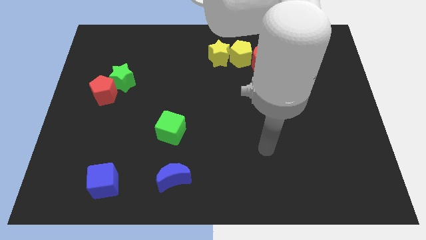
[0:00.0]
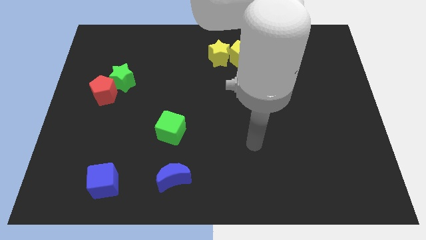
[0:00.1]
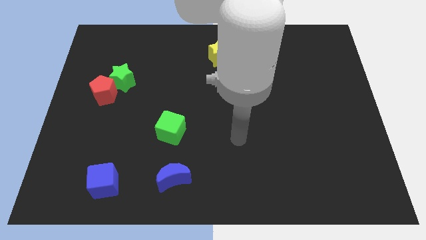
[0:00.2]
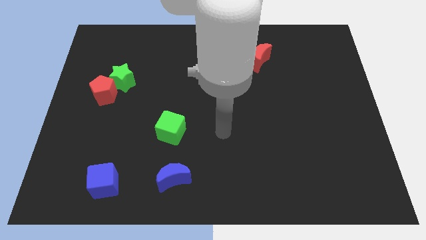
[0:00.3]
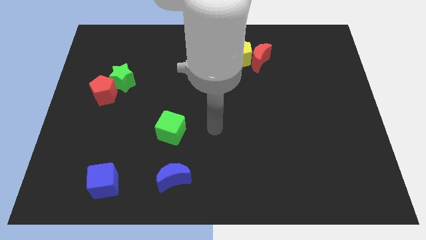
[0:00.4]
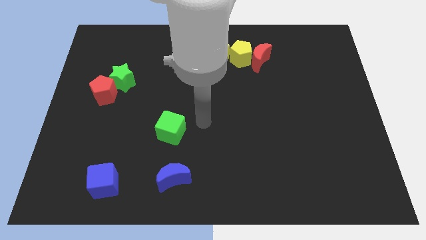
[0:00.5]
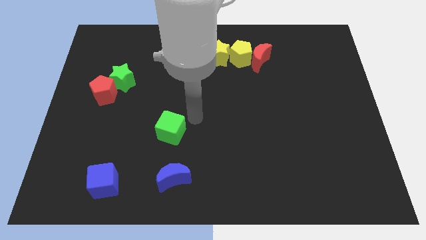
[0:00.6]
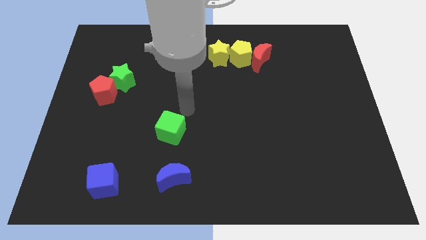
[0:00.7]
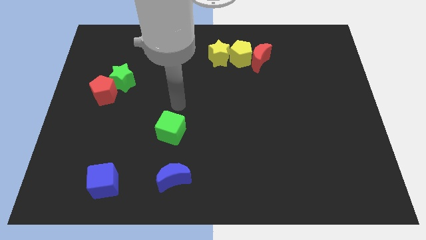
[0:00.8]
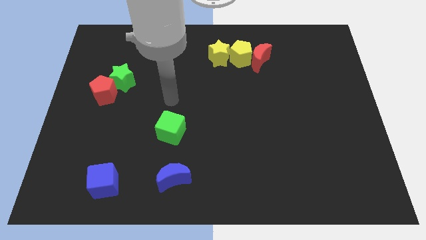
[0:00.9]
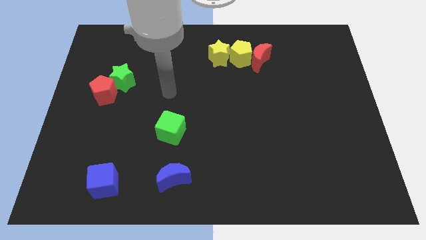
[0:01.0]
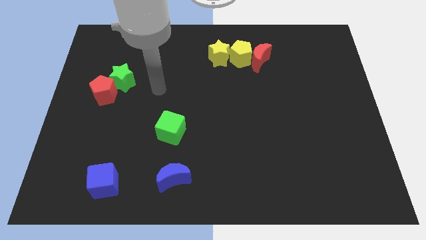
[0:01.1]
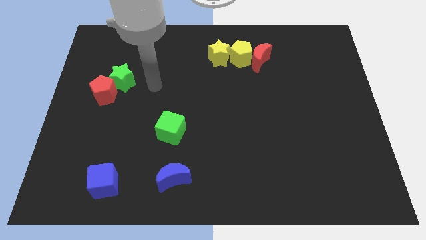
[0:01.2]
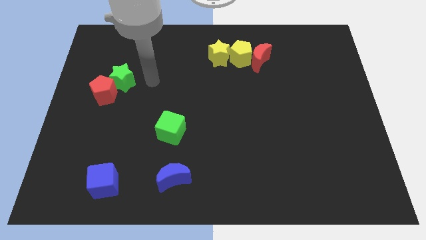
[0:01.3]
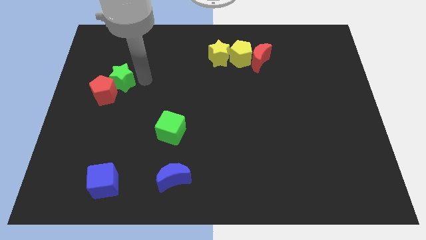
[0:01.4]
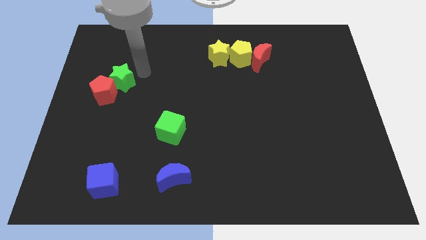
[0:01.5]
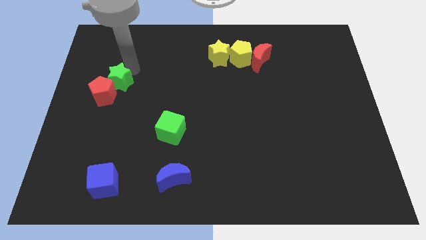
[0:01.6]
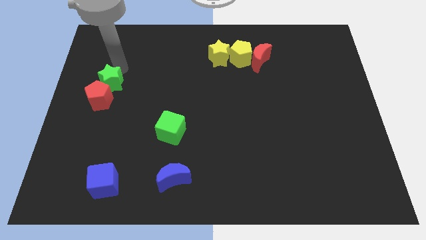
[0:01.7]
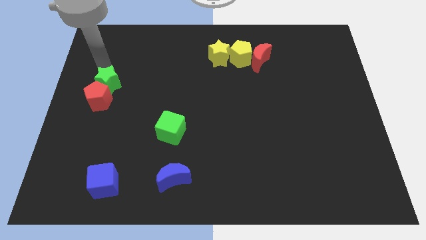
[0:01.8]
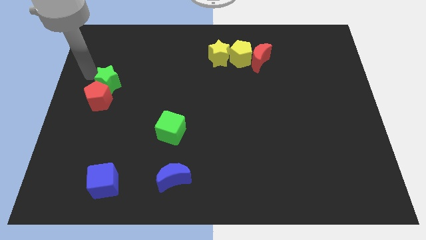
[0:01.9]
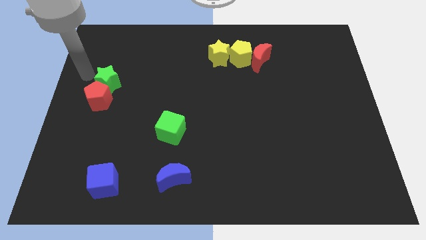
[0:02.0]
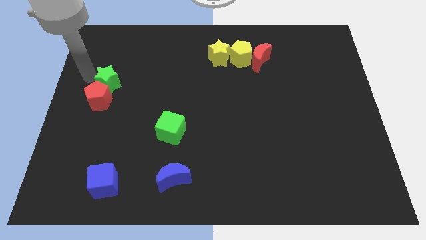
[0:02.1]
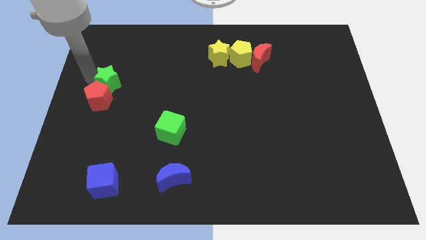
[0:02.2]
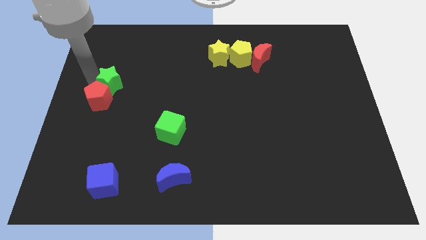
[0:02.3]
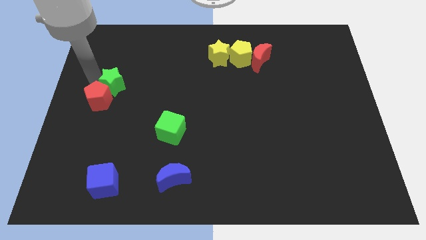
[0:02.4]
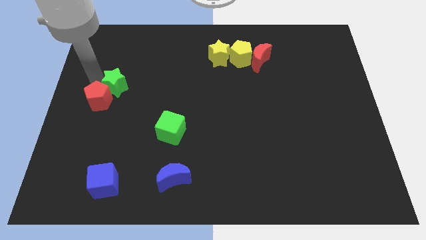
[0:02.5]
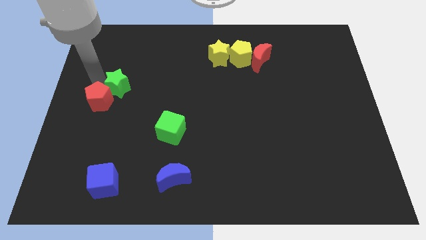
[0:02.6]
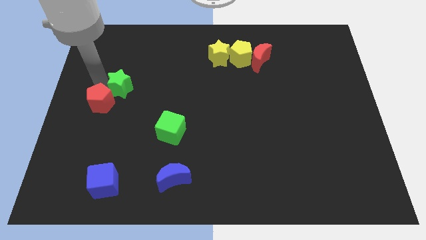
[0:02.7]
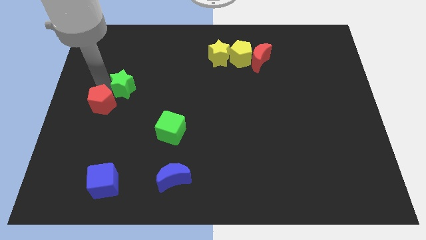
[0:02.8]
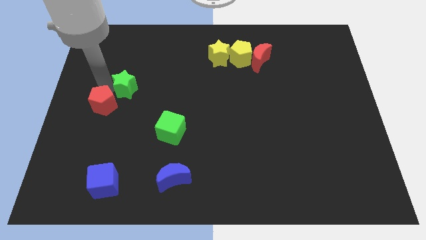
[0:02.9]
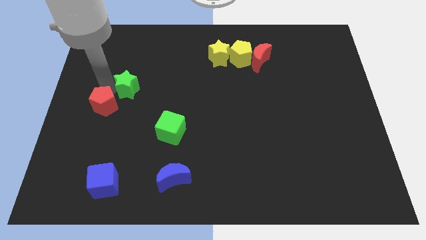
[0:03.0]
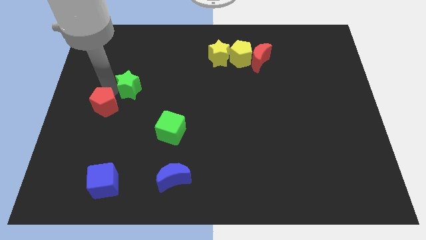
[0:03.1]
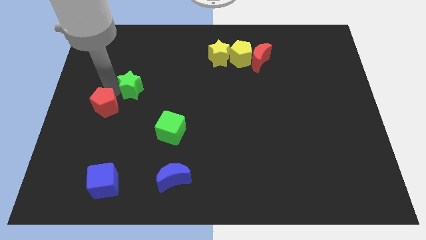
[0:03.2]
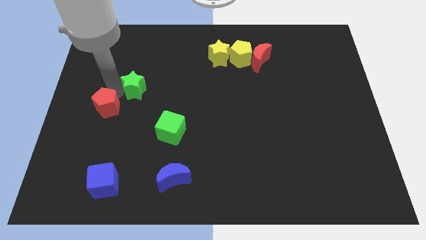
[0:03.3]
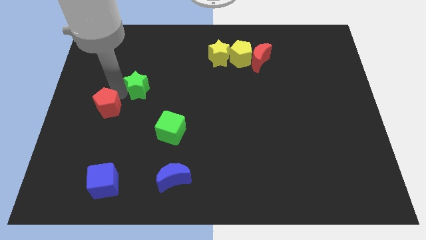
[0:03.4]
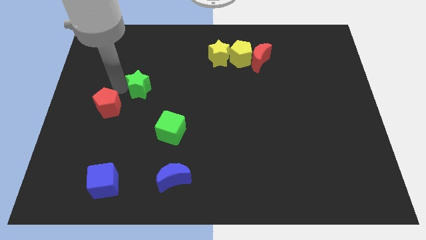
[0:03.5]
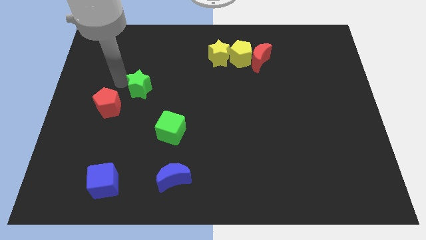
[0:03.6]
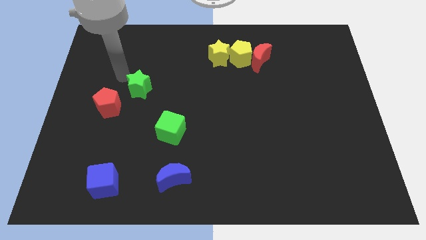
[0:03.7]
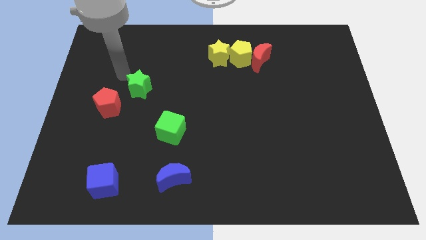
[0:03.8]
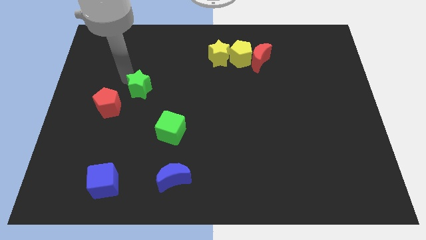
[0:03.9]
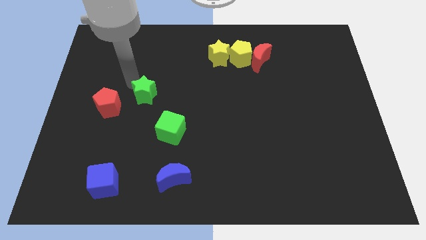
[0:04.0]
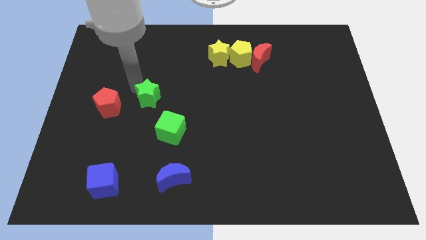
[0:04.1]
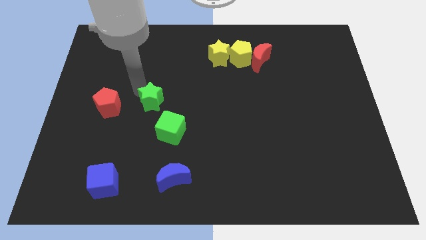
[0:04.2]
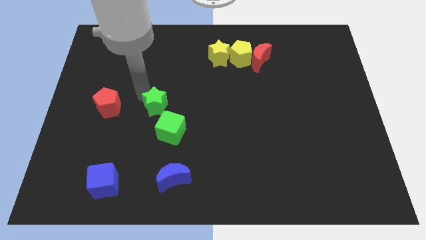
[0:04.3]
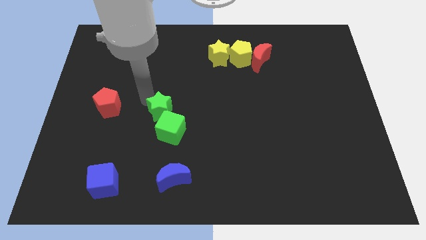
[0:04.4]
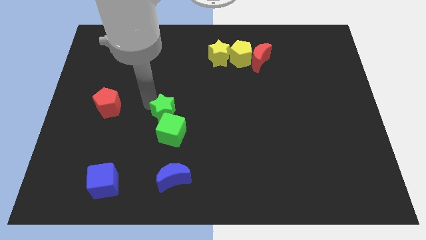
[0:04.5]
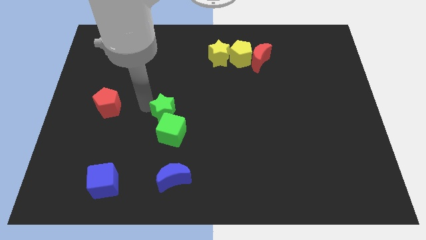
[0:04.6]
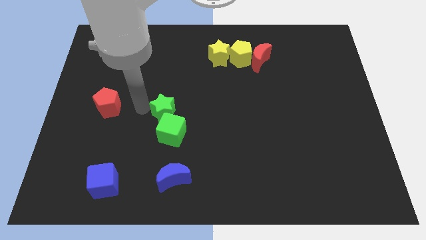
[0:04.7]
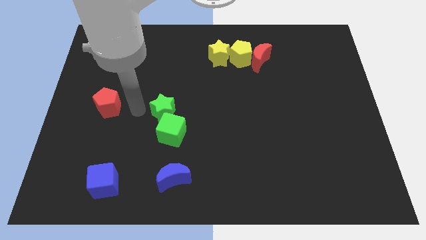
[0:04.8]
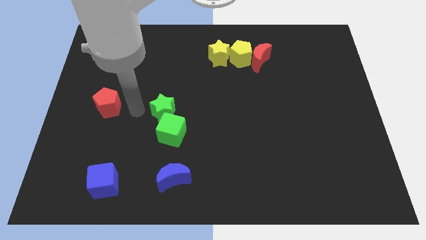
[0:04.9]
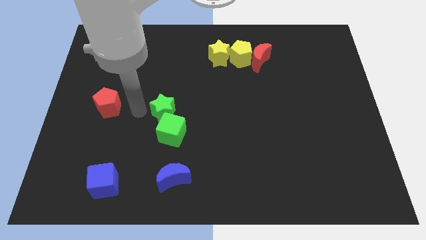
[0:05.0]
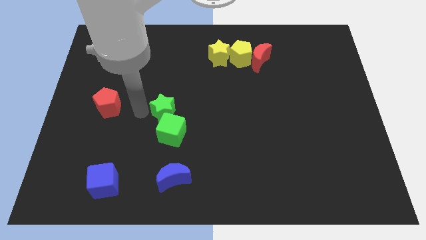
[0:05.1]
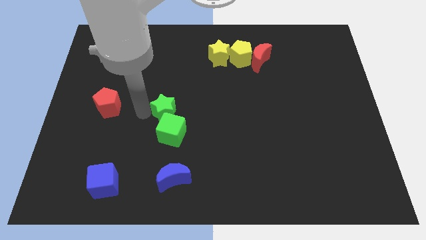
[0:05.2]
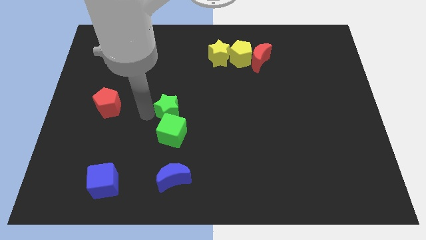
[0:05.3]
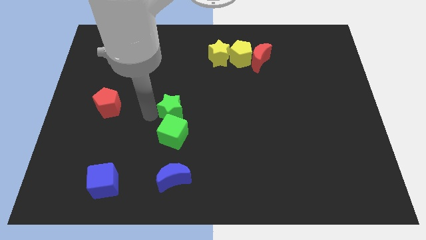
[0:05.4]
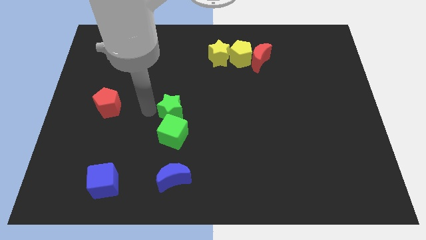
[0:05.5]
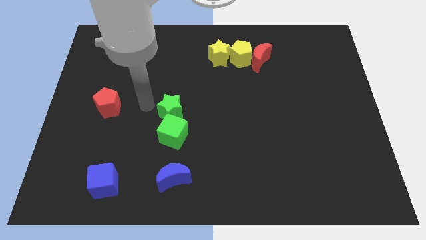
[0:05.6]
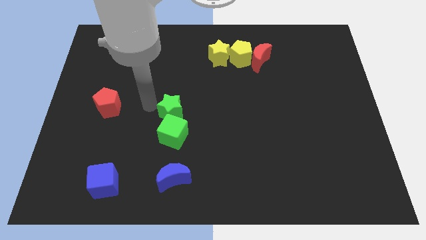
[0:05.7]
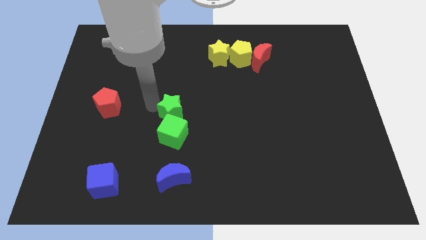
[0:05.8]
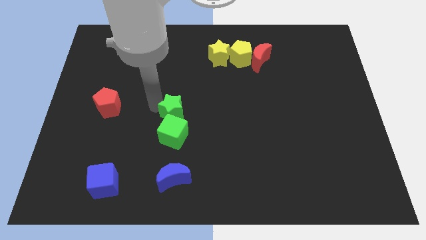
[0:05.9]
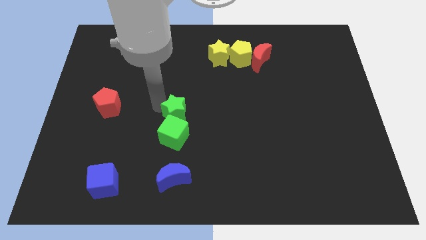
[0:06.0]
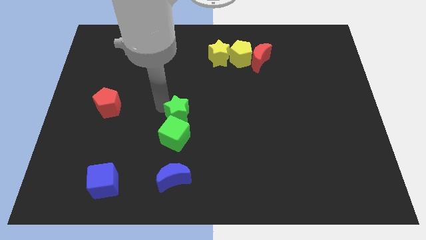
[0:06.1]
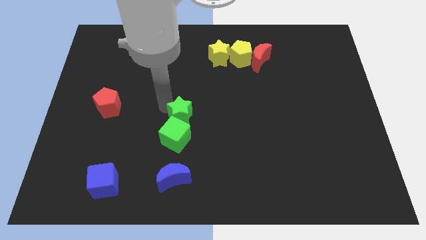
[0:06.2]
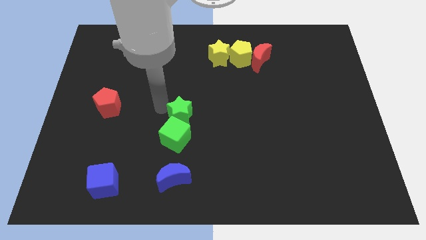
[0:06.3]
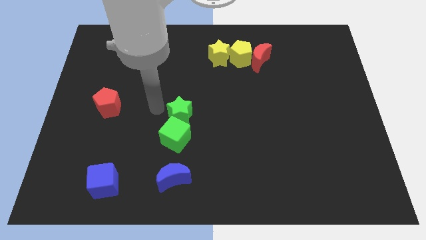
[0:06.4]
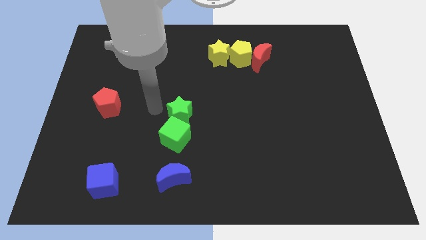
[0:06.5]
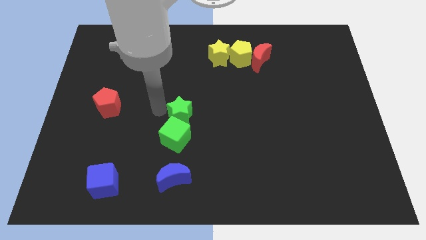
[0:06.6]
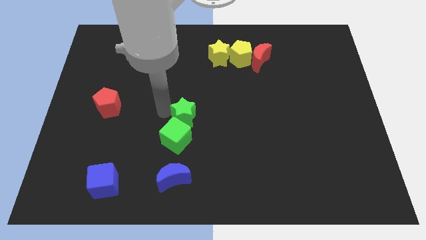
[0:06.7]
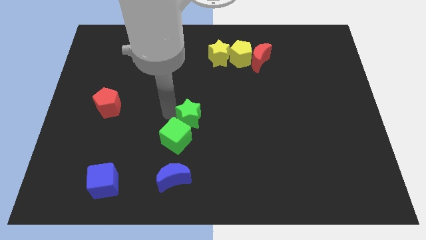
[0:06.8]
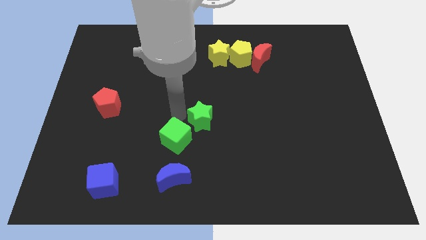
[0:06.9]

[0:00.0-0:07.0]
put the green star just right of the green cube
